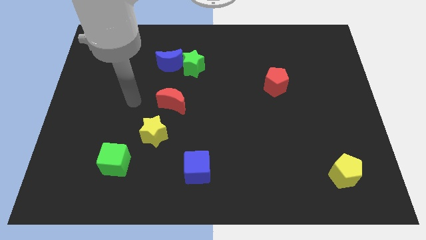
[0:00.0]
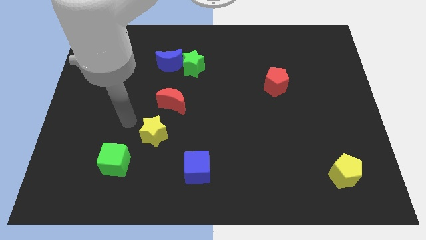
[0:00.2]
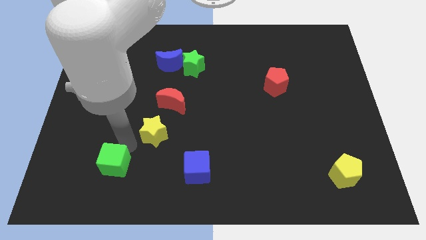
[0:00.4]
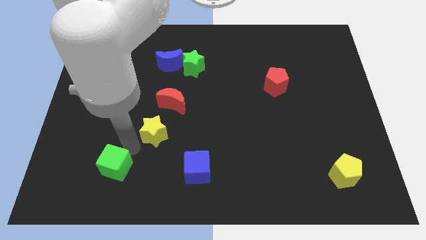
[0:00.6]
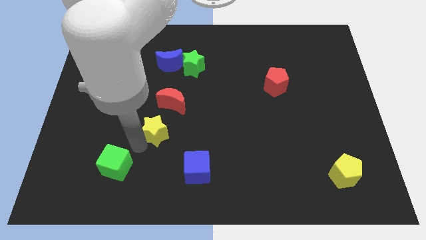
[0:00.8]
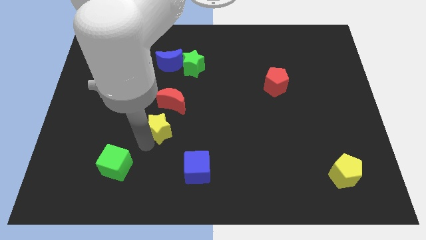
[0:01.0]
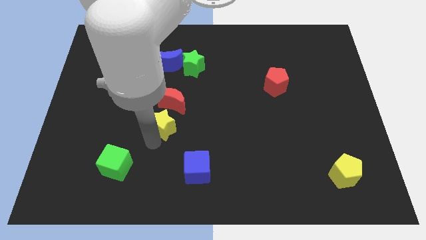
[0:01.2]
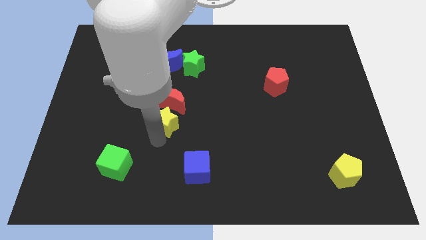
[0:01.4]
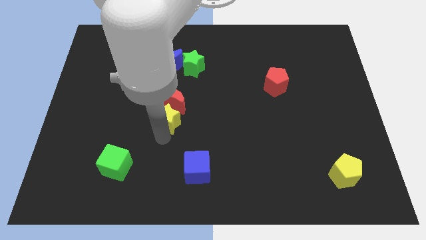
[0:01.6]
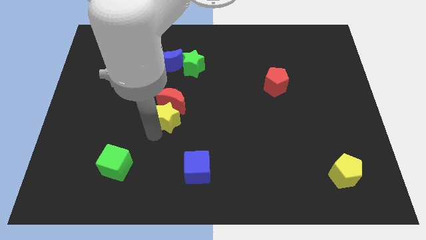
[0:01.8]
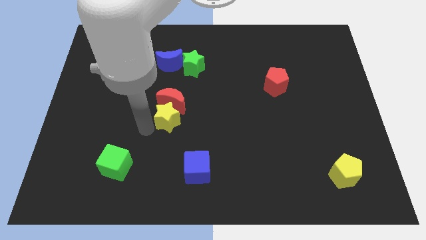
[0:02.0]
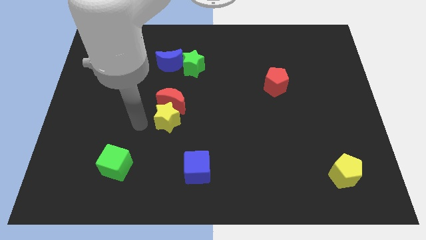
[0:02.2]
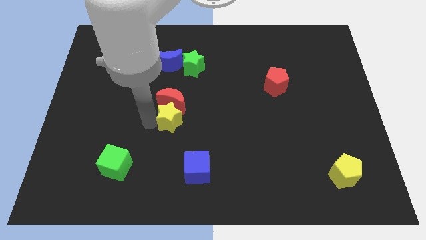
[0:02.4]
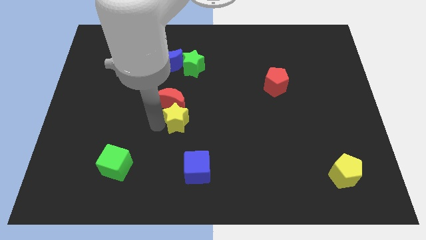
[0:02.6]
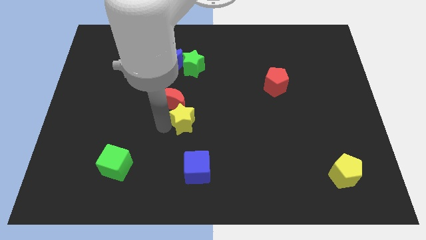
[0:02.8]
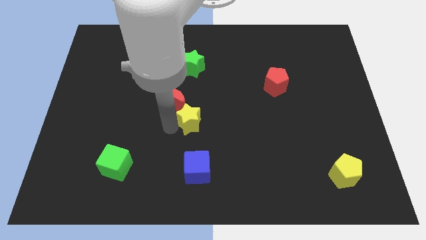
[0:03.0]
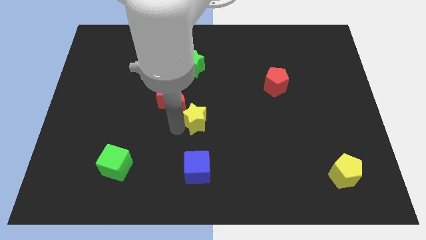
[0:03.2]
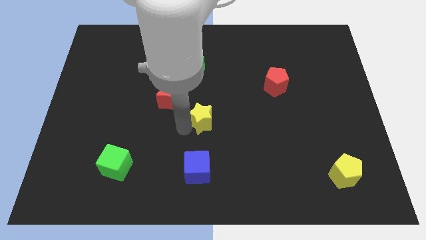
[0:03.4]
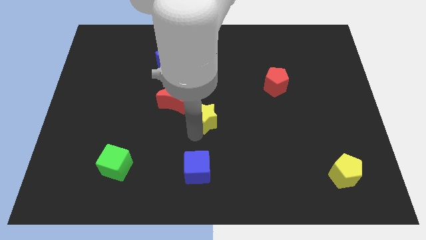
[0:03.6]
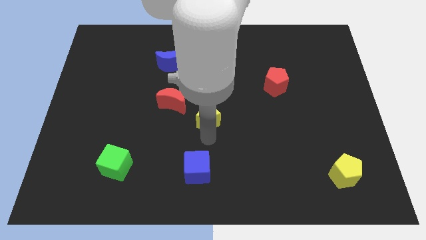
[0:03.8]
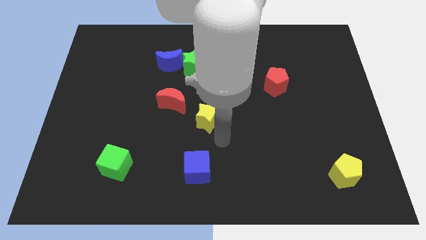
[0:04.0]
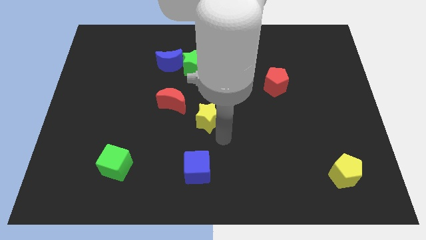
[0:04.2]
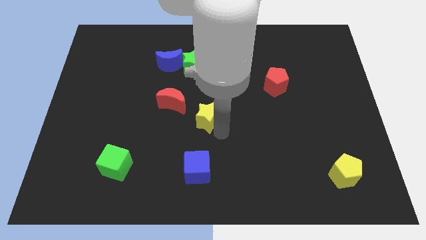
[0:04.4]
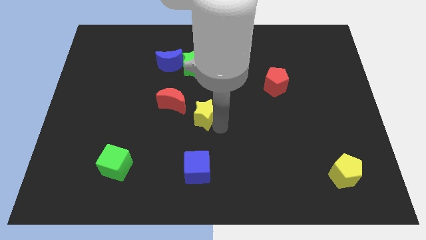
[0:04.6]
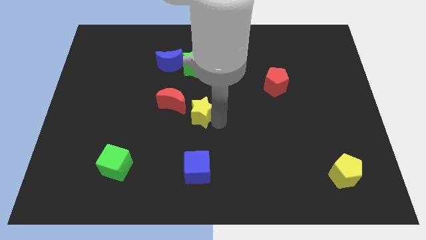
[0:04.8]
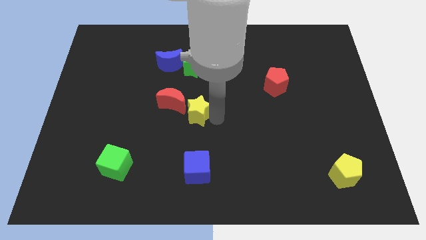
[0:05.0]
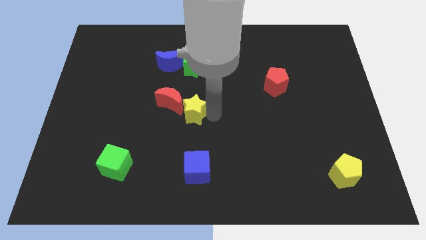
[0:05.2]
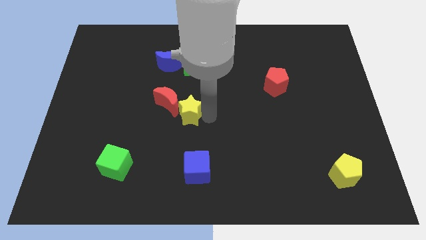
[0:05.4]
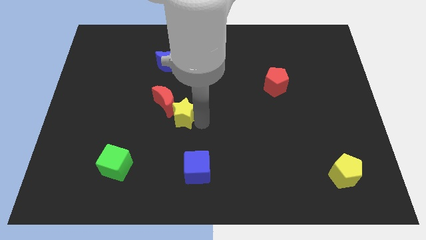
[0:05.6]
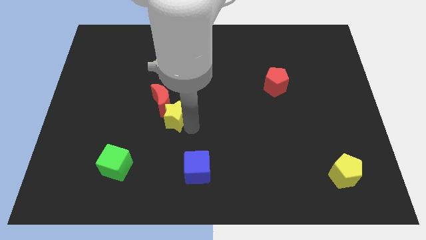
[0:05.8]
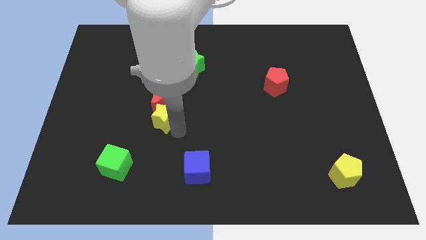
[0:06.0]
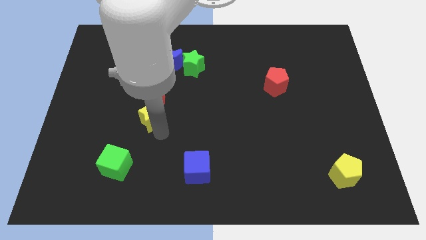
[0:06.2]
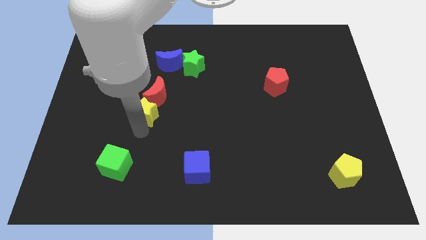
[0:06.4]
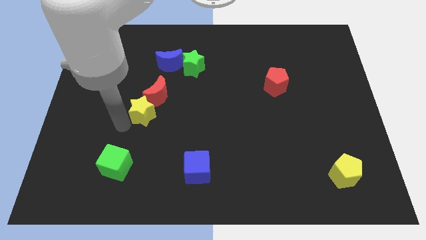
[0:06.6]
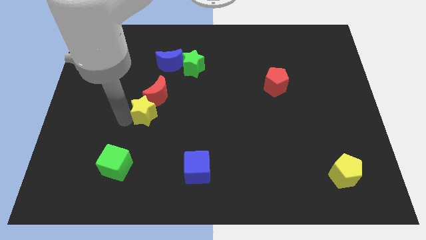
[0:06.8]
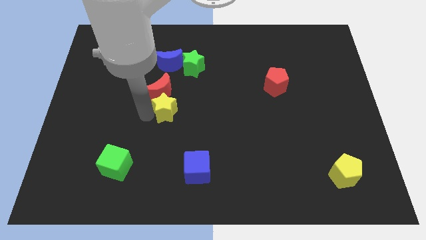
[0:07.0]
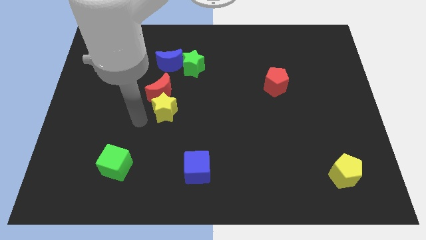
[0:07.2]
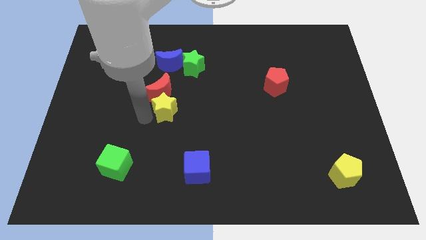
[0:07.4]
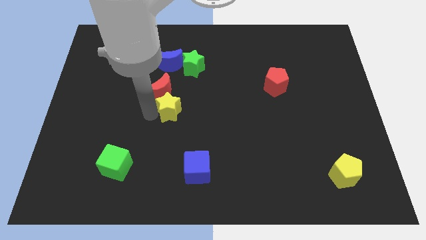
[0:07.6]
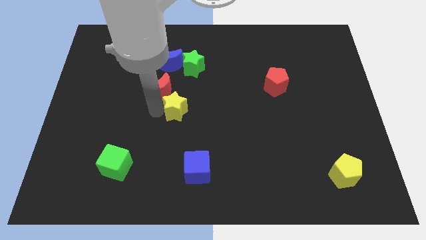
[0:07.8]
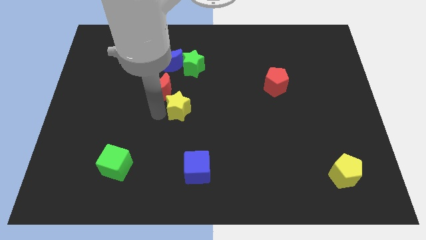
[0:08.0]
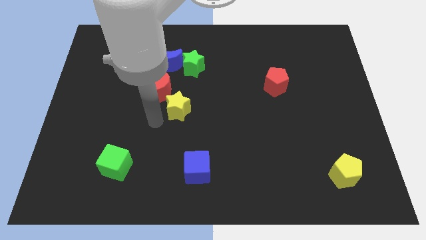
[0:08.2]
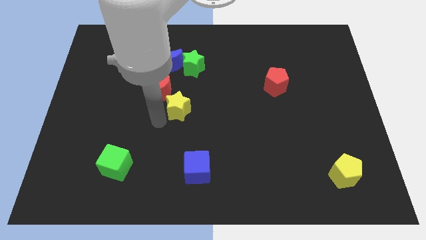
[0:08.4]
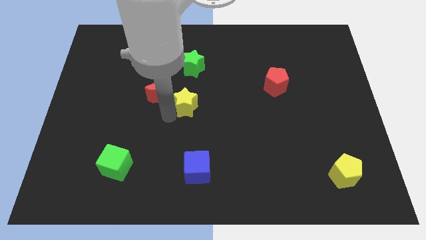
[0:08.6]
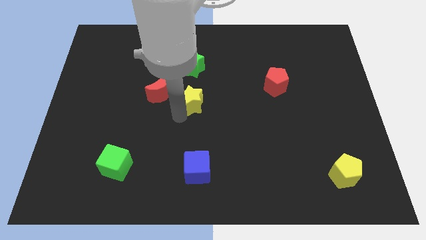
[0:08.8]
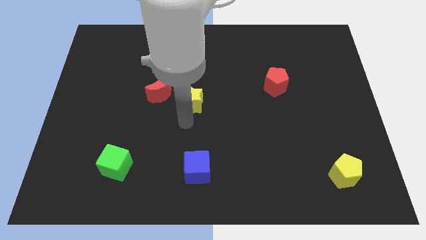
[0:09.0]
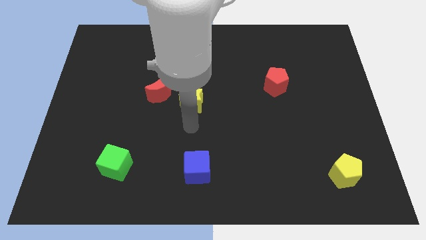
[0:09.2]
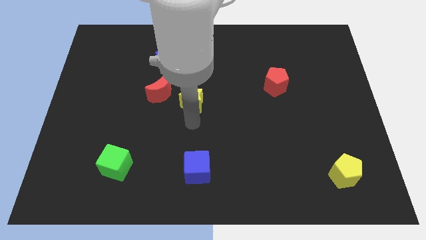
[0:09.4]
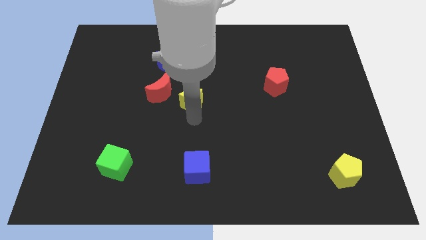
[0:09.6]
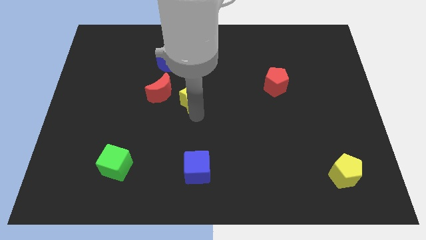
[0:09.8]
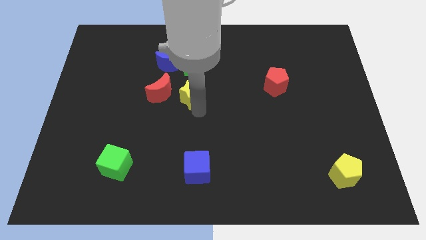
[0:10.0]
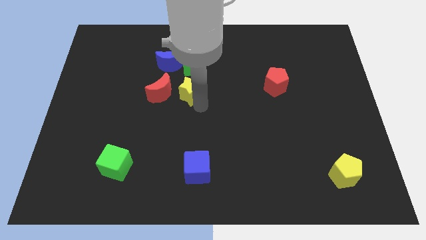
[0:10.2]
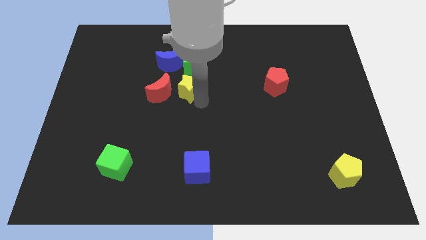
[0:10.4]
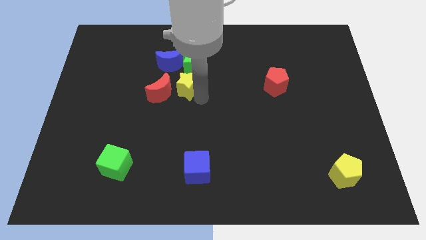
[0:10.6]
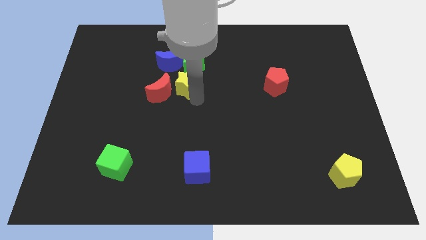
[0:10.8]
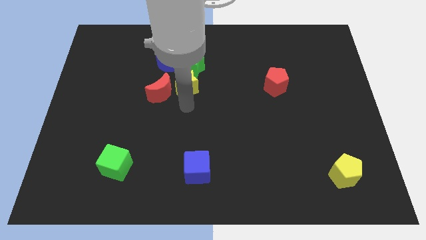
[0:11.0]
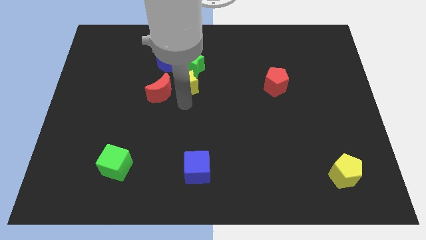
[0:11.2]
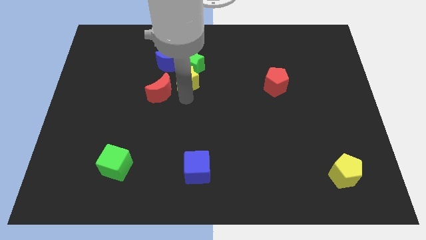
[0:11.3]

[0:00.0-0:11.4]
put the yellow star to the green star

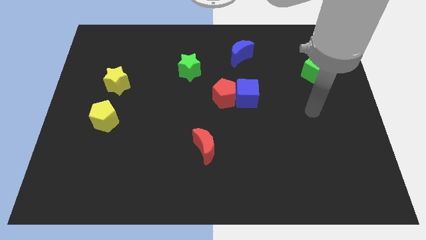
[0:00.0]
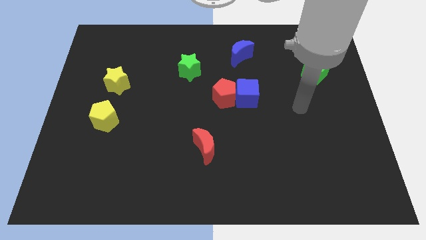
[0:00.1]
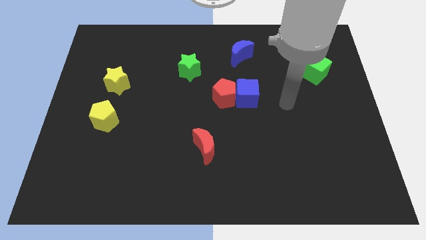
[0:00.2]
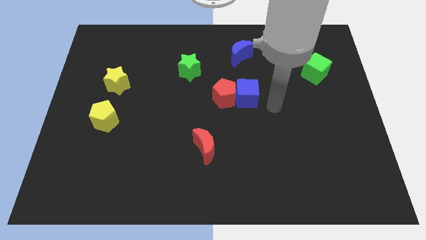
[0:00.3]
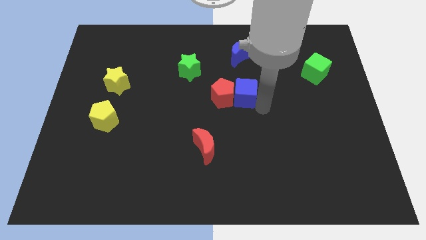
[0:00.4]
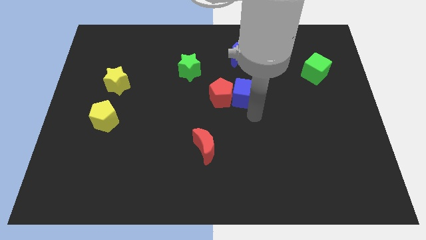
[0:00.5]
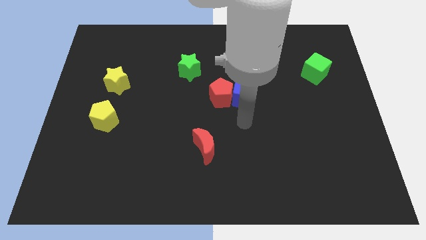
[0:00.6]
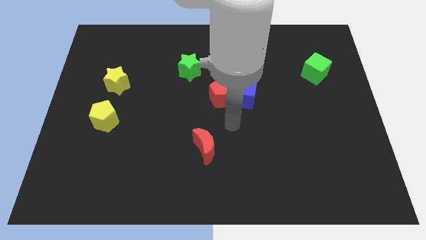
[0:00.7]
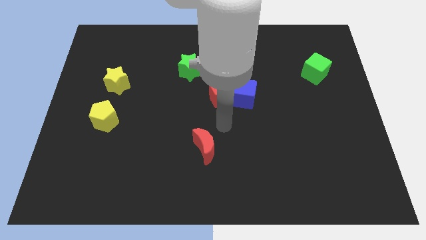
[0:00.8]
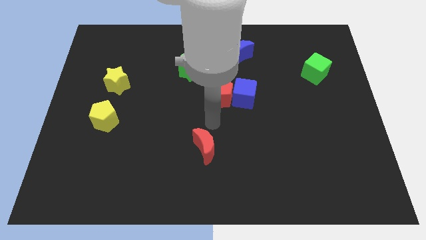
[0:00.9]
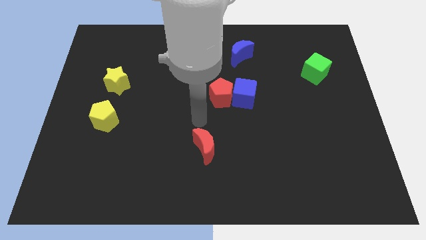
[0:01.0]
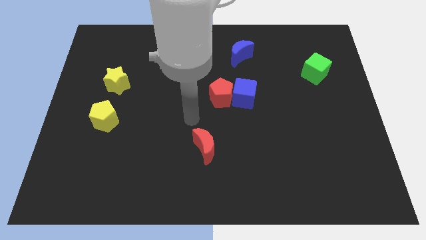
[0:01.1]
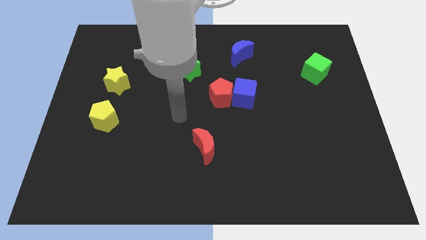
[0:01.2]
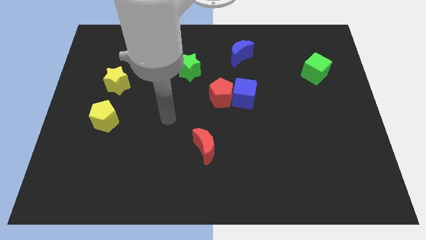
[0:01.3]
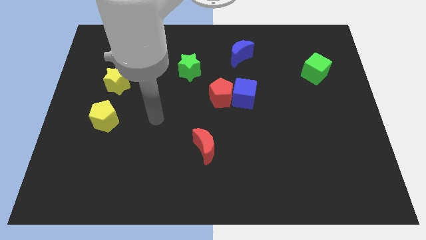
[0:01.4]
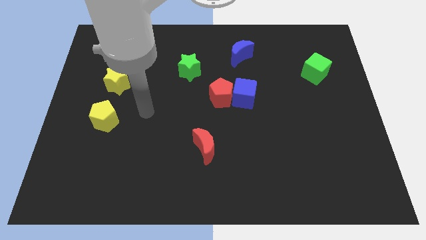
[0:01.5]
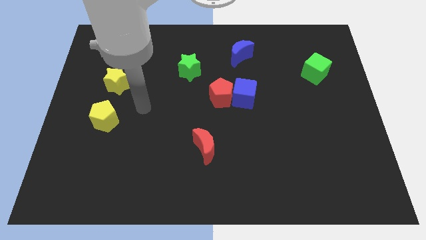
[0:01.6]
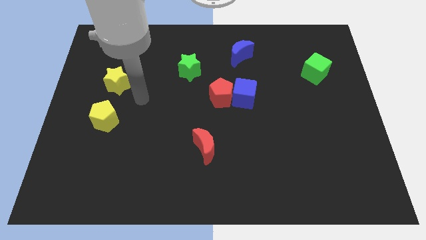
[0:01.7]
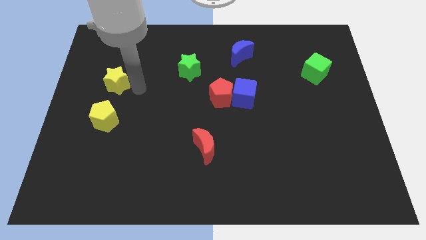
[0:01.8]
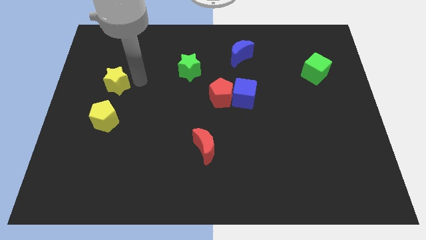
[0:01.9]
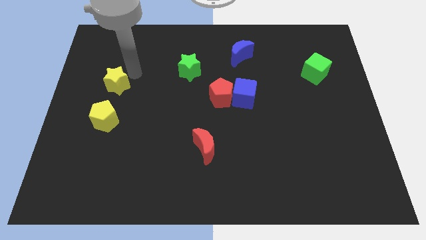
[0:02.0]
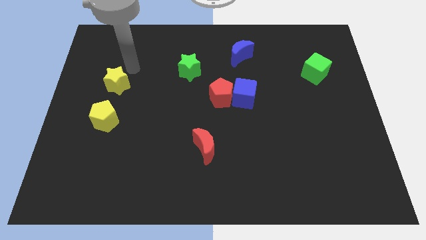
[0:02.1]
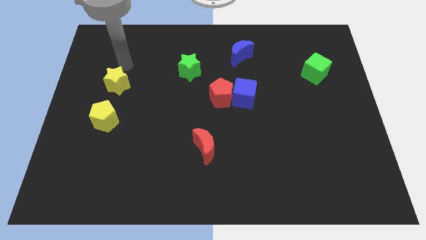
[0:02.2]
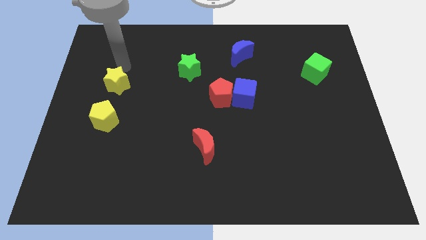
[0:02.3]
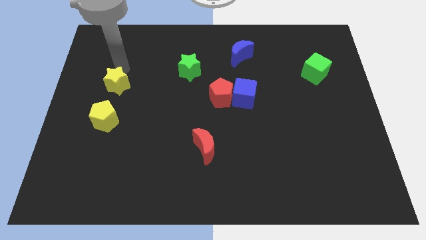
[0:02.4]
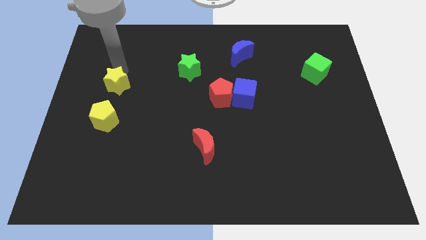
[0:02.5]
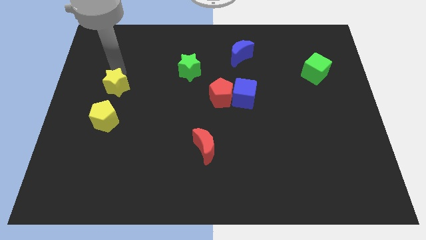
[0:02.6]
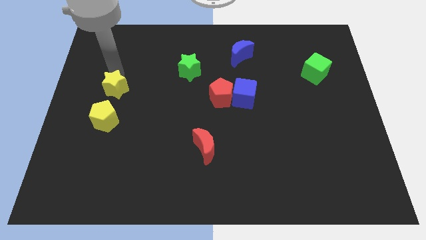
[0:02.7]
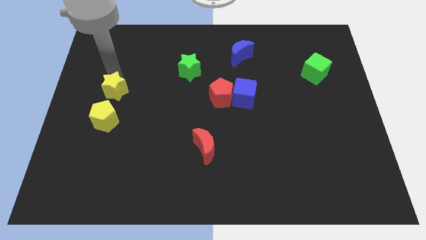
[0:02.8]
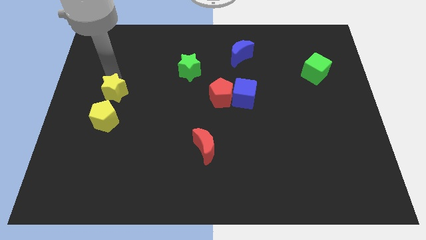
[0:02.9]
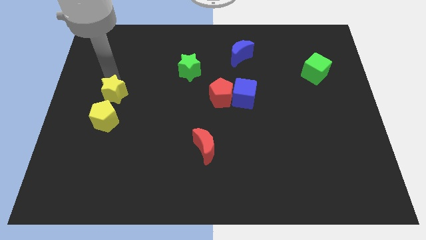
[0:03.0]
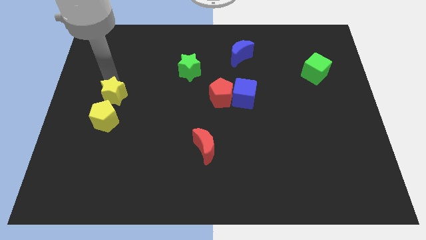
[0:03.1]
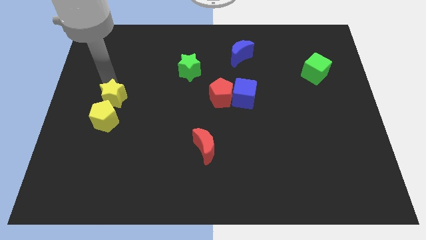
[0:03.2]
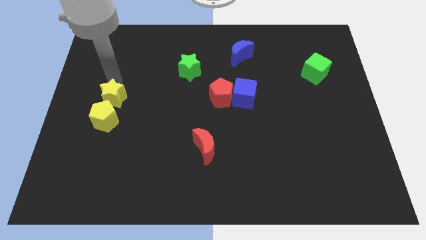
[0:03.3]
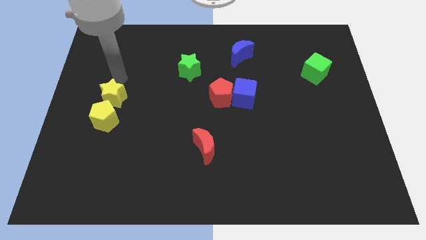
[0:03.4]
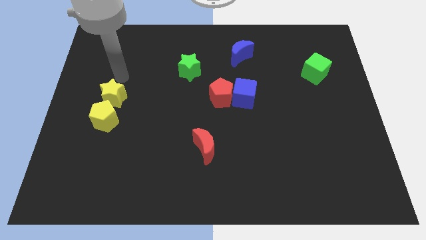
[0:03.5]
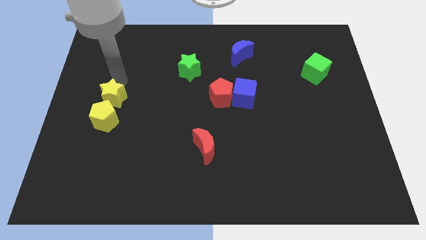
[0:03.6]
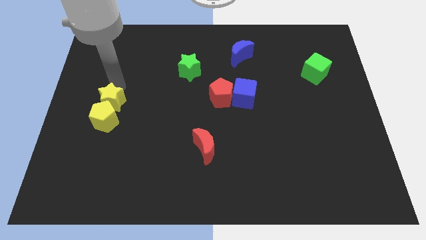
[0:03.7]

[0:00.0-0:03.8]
put the yellow star next to the yellow pentagon
